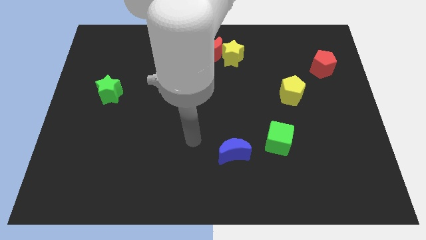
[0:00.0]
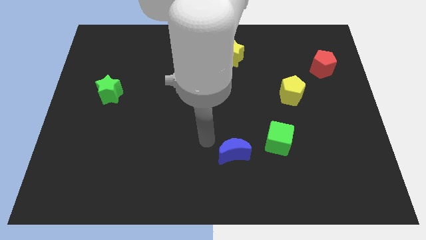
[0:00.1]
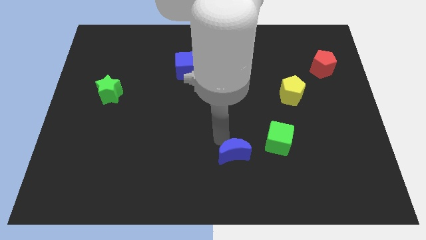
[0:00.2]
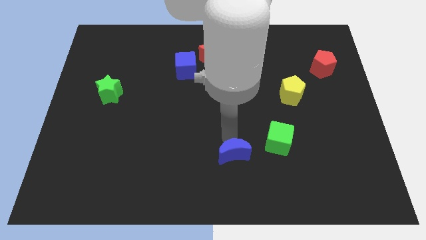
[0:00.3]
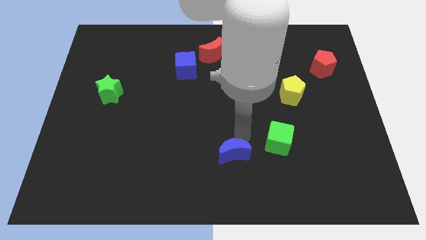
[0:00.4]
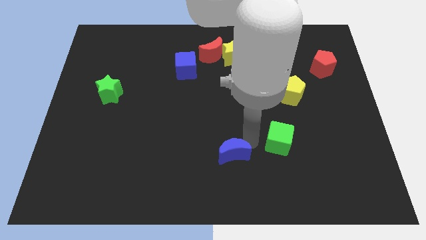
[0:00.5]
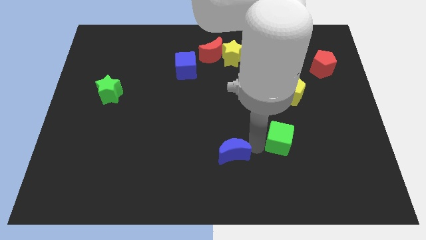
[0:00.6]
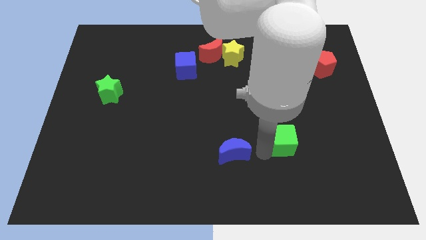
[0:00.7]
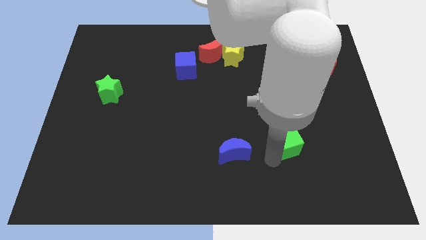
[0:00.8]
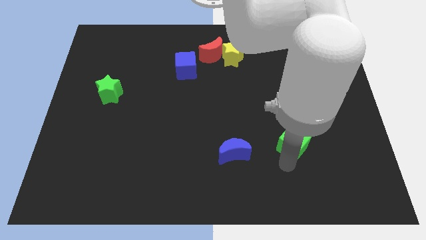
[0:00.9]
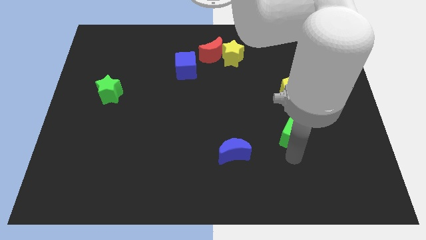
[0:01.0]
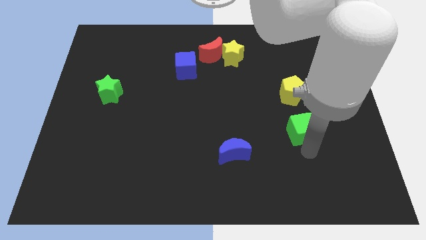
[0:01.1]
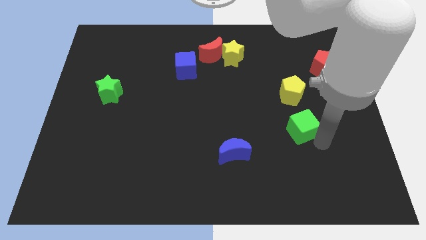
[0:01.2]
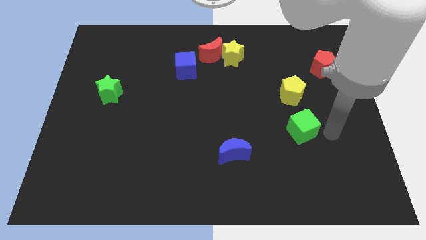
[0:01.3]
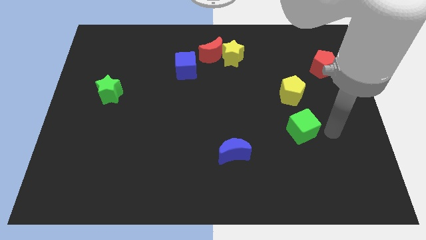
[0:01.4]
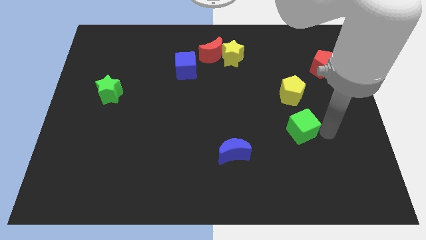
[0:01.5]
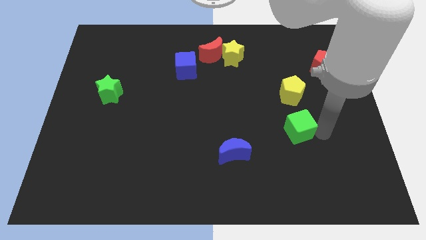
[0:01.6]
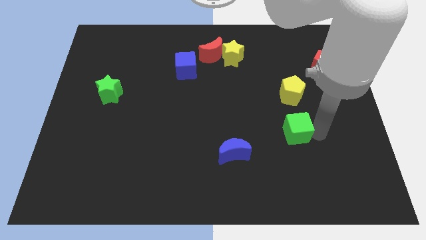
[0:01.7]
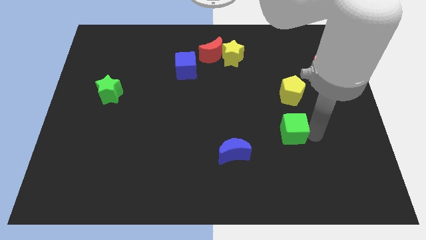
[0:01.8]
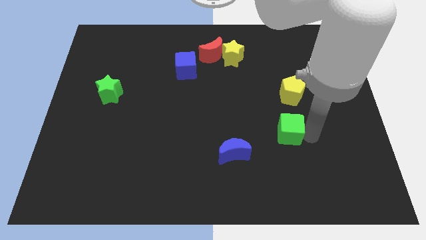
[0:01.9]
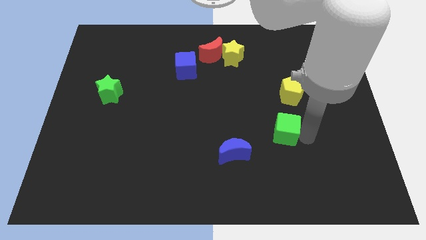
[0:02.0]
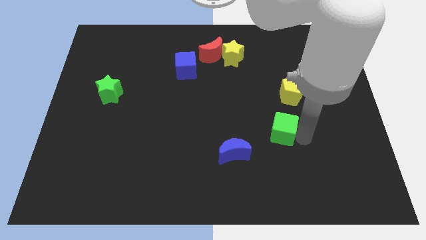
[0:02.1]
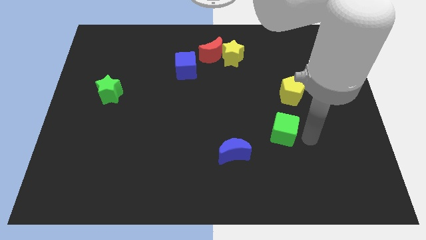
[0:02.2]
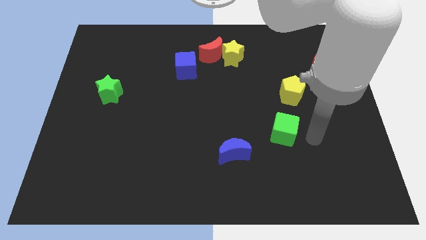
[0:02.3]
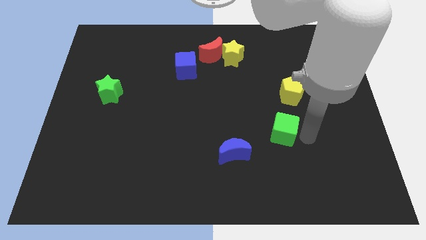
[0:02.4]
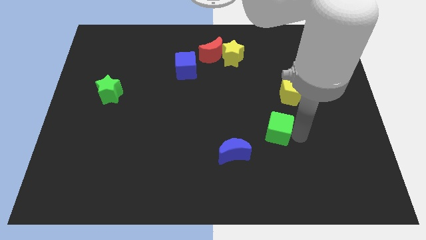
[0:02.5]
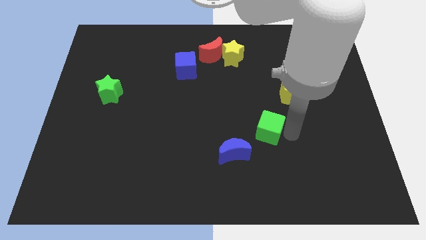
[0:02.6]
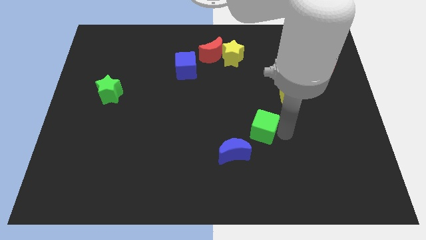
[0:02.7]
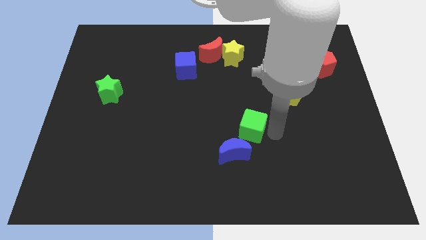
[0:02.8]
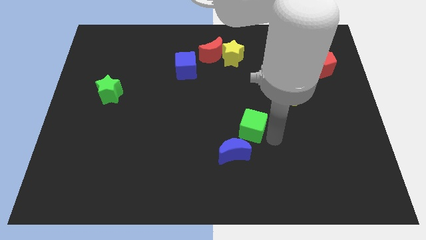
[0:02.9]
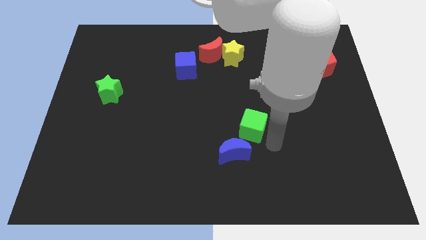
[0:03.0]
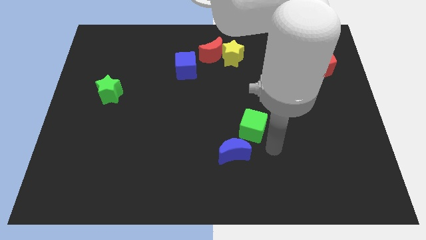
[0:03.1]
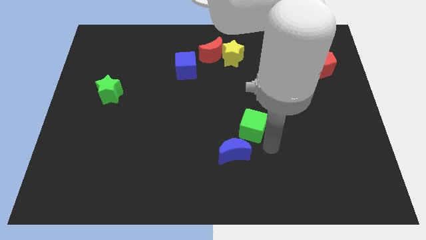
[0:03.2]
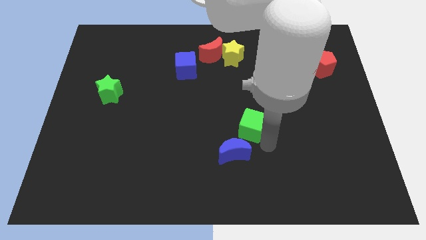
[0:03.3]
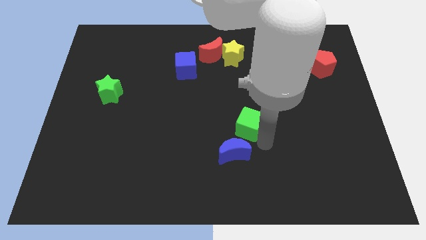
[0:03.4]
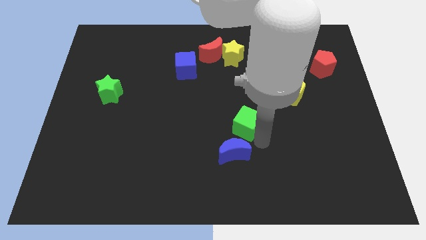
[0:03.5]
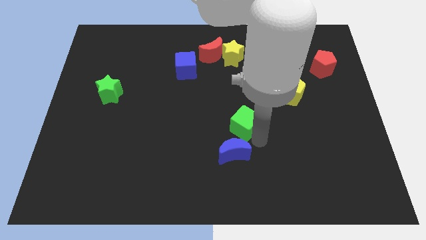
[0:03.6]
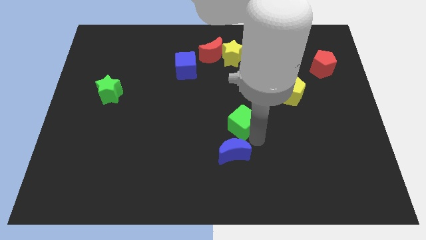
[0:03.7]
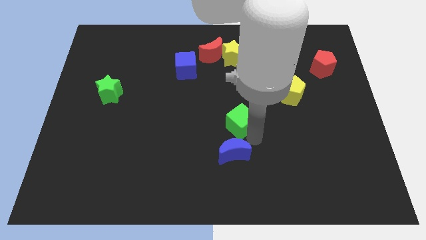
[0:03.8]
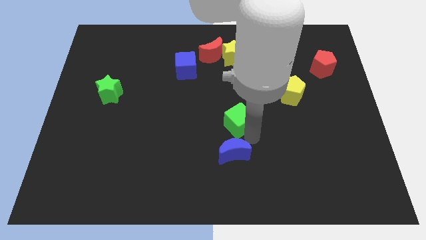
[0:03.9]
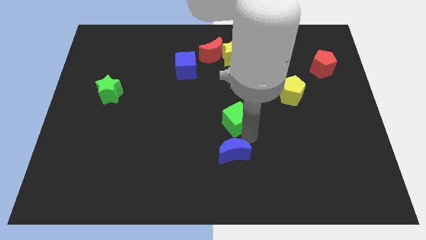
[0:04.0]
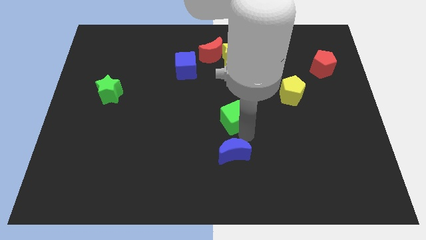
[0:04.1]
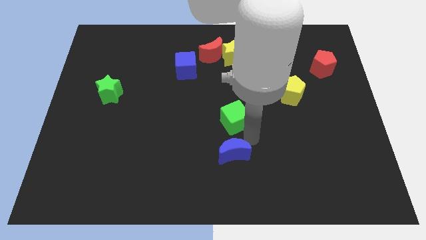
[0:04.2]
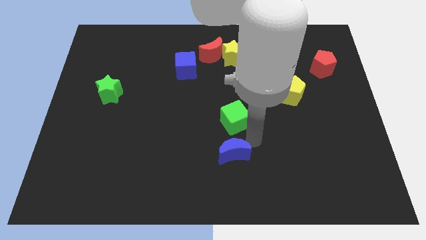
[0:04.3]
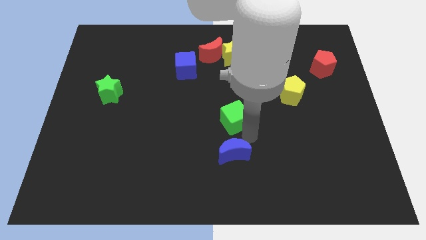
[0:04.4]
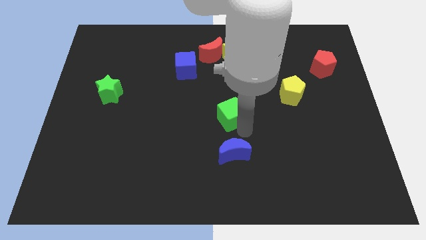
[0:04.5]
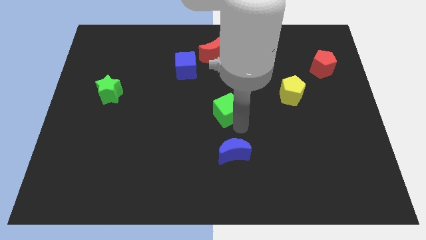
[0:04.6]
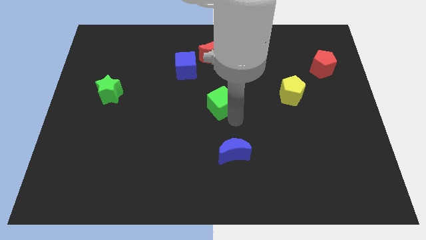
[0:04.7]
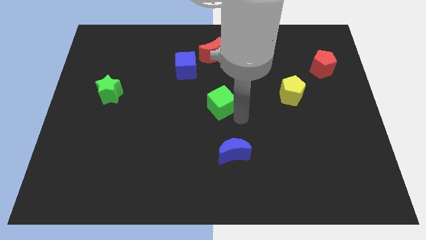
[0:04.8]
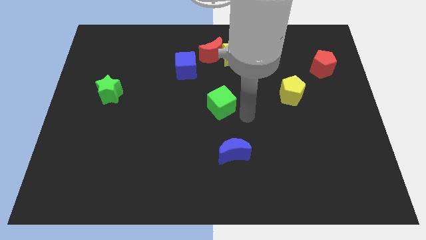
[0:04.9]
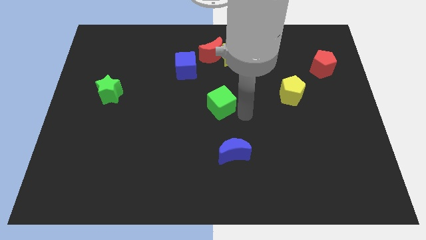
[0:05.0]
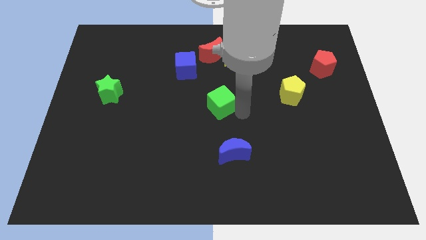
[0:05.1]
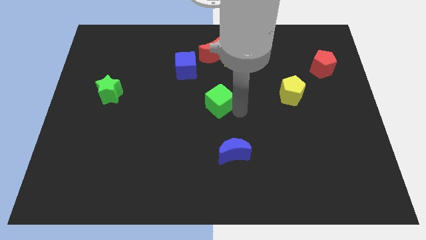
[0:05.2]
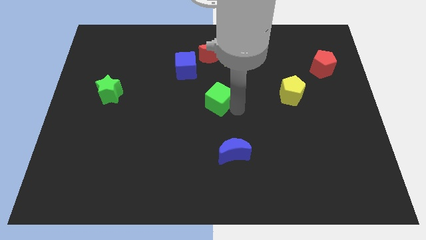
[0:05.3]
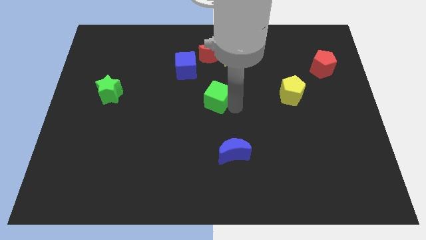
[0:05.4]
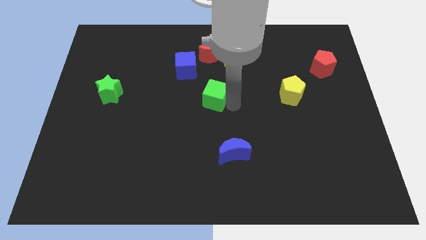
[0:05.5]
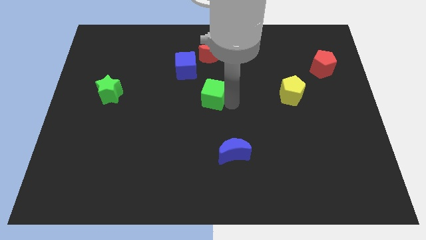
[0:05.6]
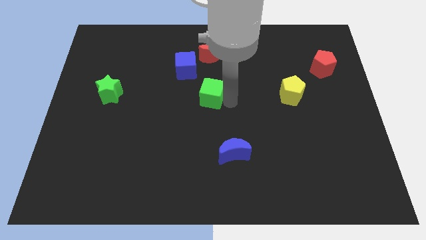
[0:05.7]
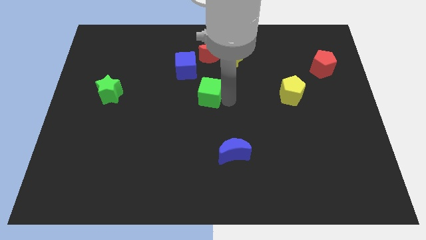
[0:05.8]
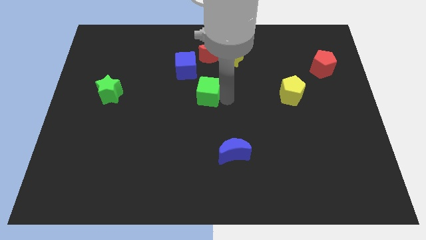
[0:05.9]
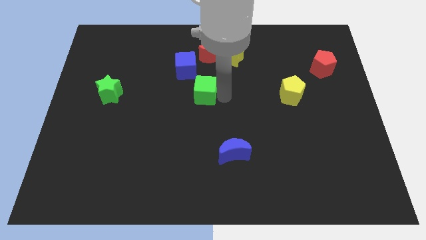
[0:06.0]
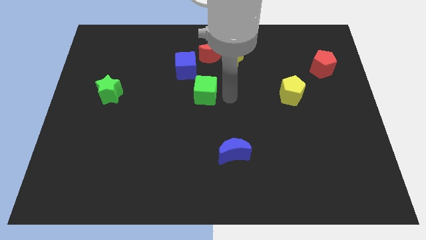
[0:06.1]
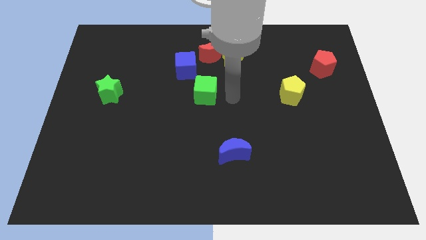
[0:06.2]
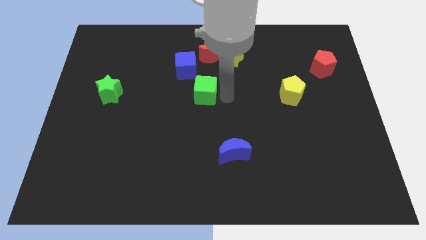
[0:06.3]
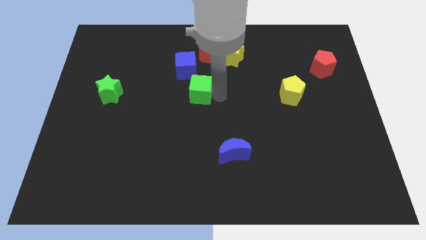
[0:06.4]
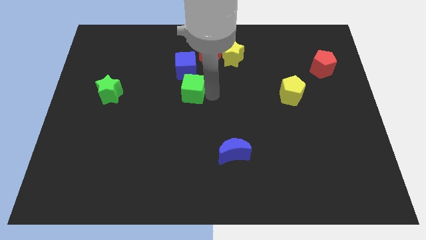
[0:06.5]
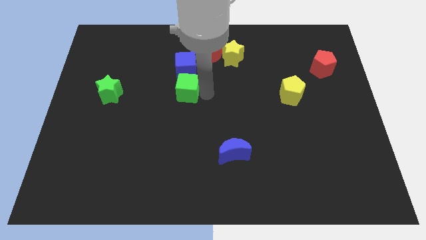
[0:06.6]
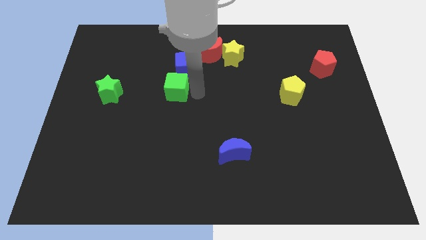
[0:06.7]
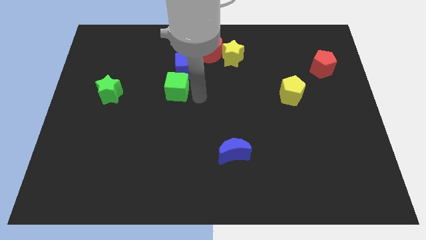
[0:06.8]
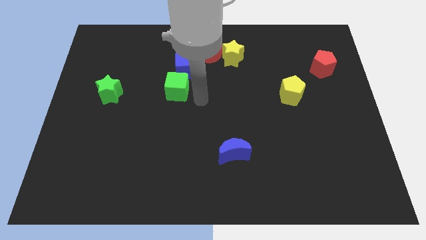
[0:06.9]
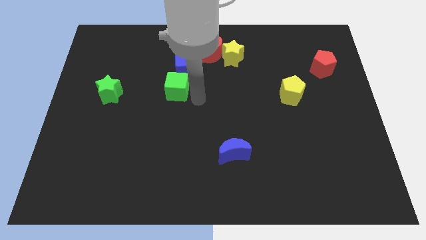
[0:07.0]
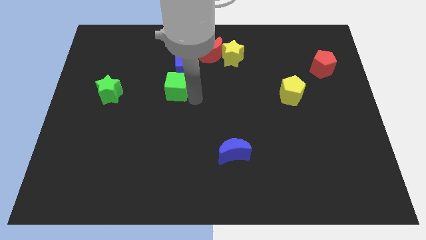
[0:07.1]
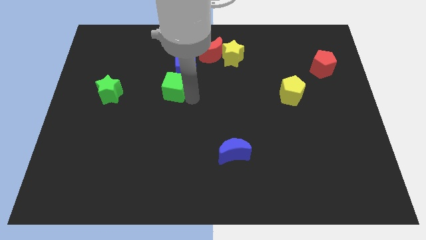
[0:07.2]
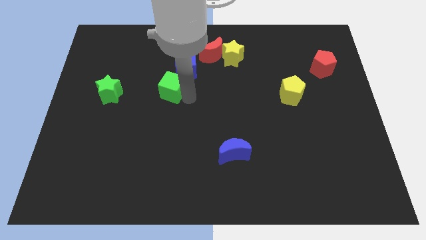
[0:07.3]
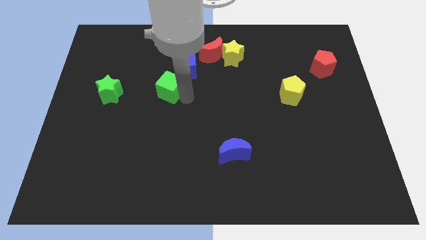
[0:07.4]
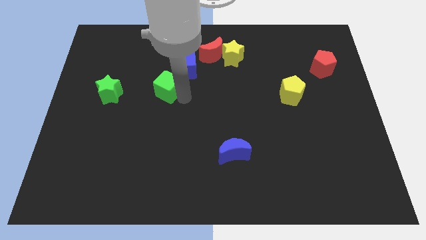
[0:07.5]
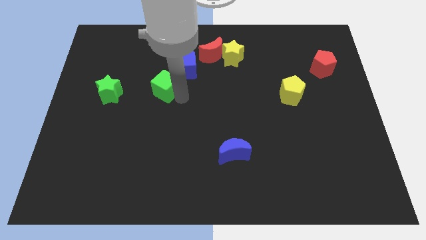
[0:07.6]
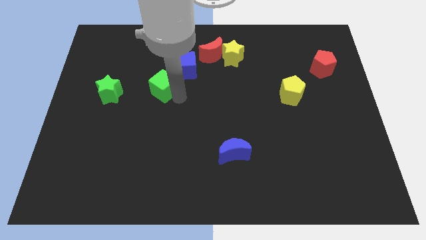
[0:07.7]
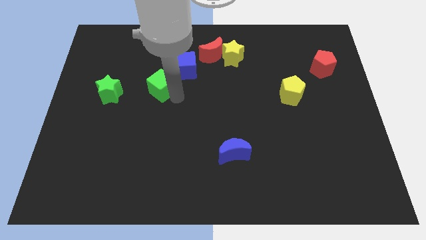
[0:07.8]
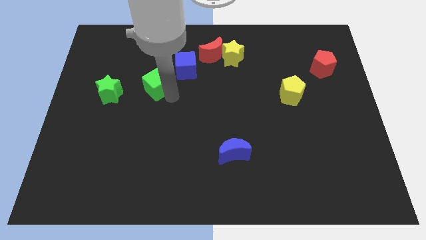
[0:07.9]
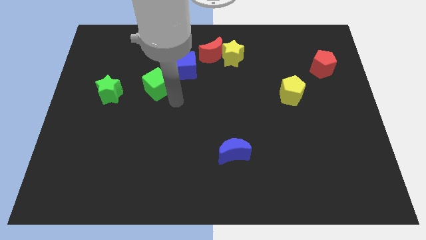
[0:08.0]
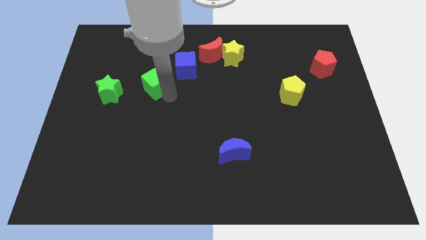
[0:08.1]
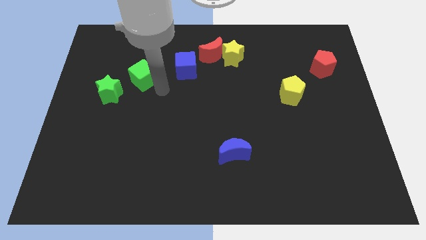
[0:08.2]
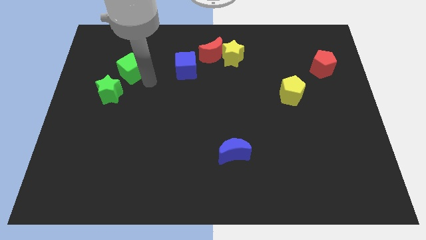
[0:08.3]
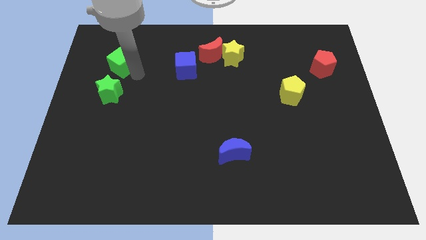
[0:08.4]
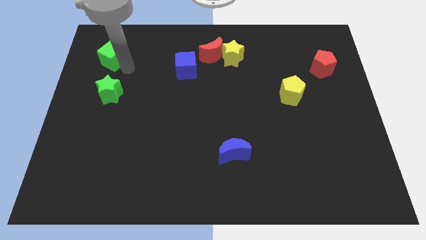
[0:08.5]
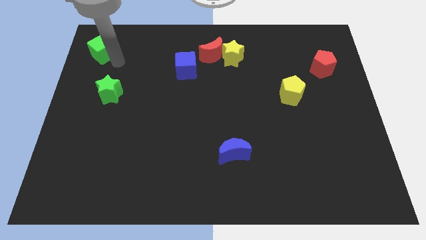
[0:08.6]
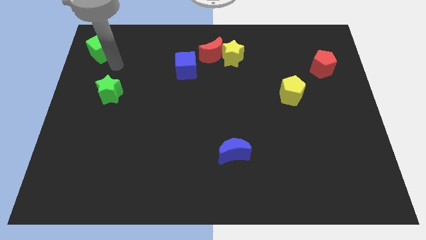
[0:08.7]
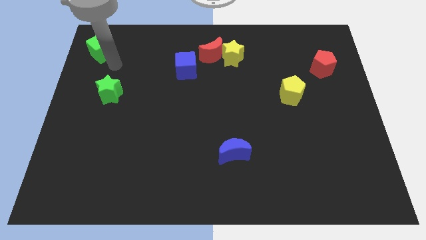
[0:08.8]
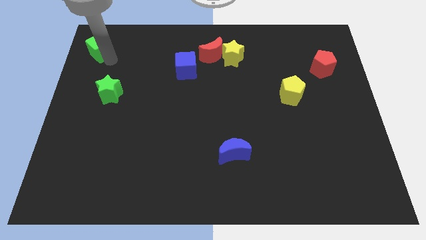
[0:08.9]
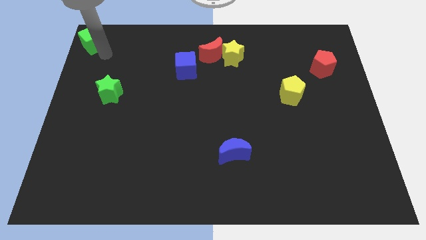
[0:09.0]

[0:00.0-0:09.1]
move the green cube to the top left corner
